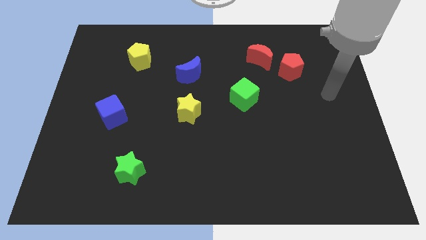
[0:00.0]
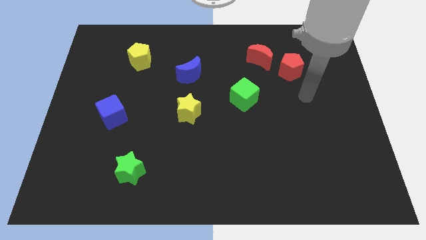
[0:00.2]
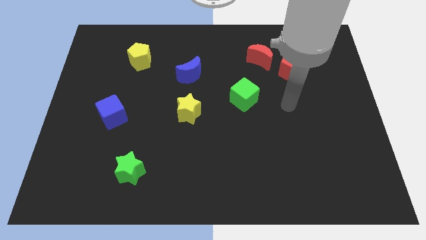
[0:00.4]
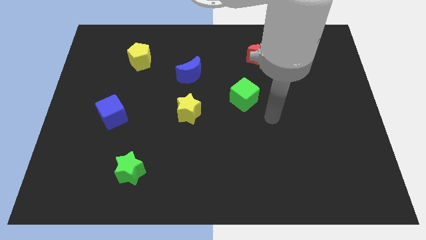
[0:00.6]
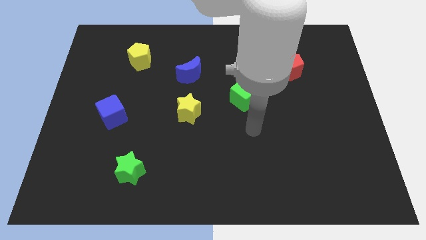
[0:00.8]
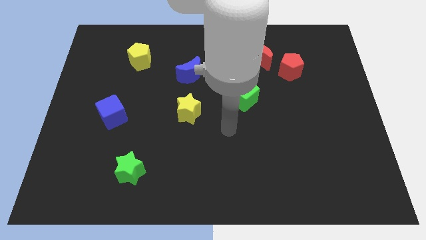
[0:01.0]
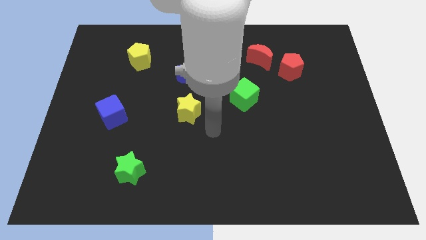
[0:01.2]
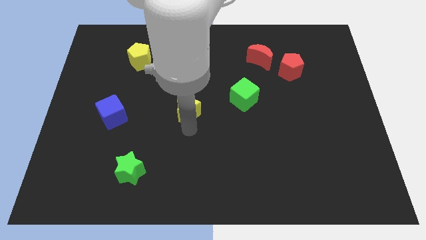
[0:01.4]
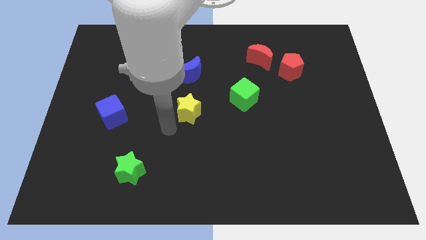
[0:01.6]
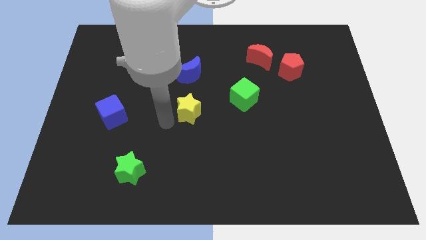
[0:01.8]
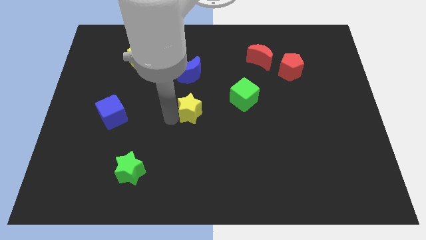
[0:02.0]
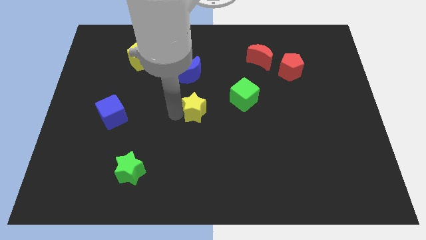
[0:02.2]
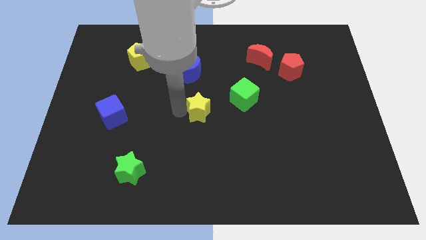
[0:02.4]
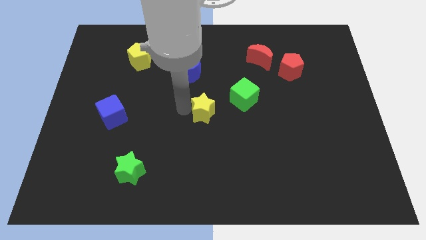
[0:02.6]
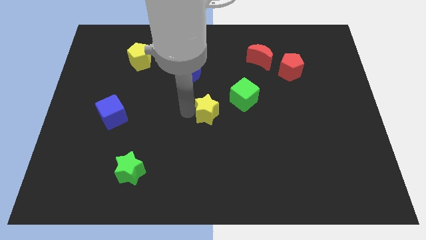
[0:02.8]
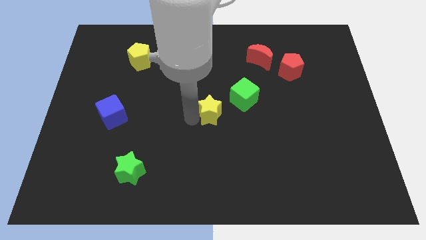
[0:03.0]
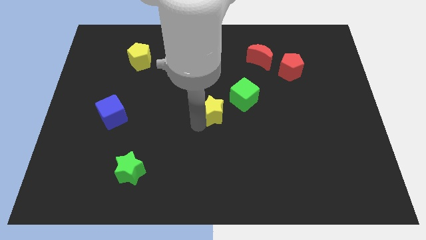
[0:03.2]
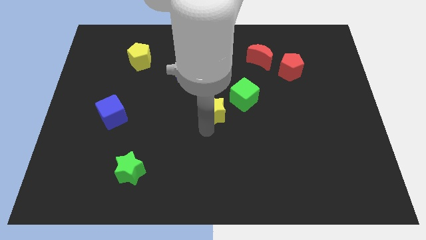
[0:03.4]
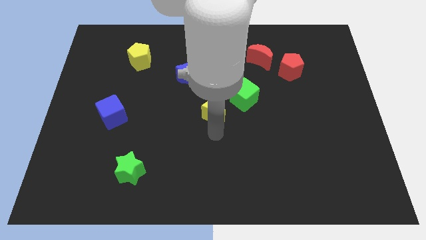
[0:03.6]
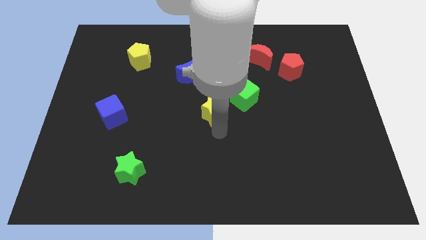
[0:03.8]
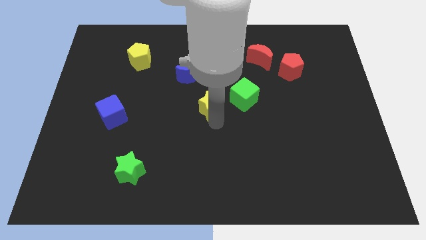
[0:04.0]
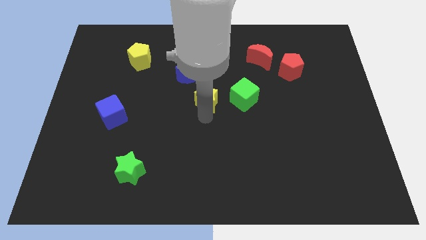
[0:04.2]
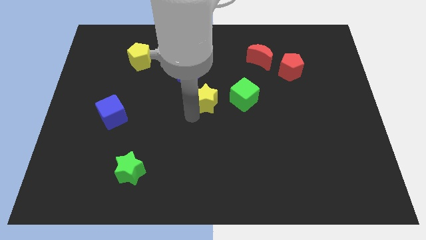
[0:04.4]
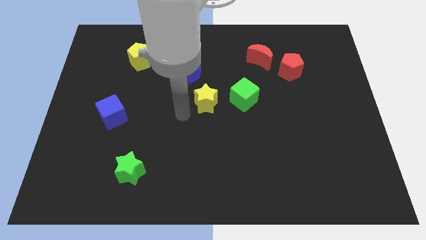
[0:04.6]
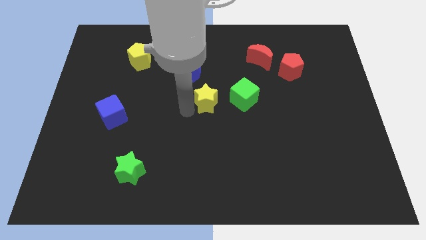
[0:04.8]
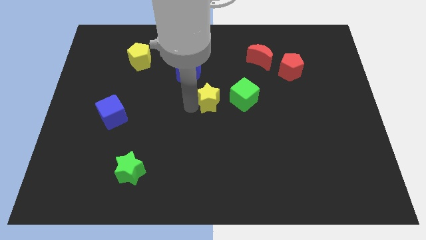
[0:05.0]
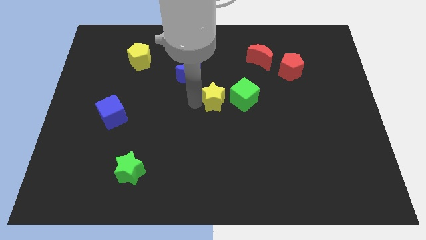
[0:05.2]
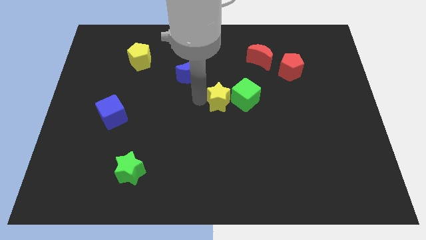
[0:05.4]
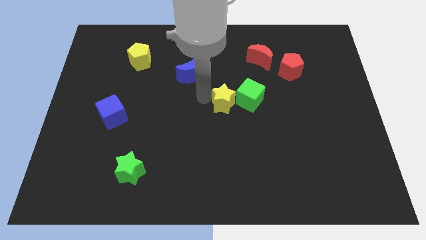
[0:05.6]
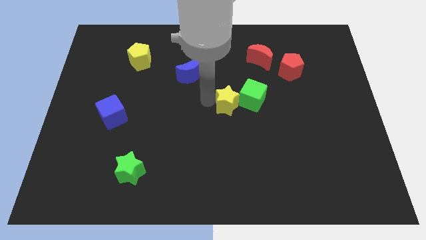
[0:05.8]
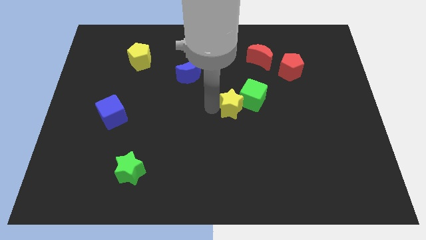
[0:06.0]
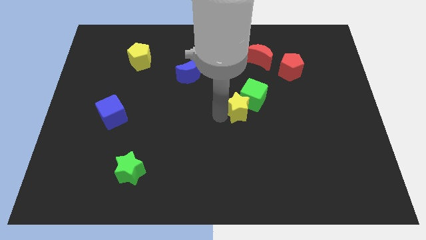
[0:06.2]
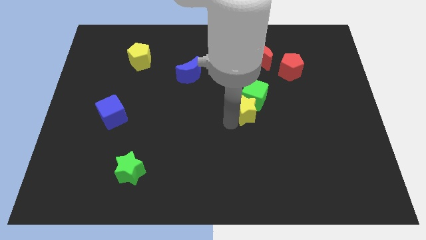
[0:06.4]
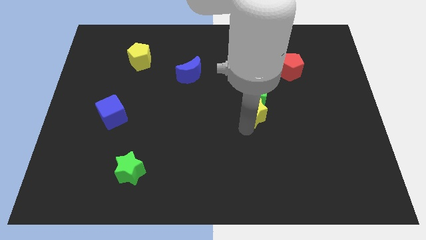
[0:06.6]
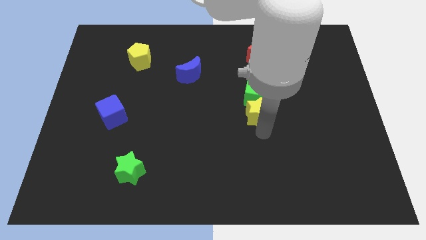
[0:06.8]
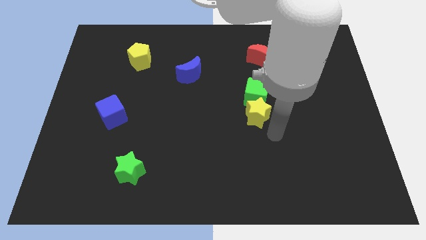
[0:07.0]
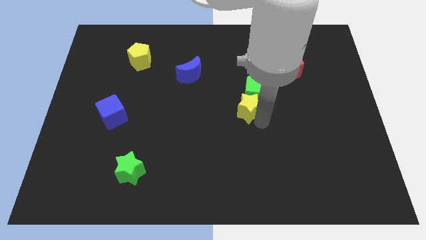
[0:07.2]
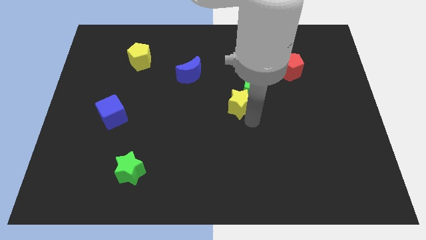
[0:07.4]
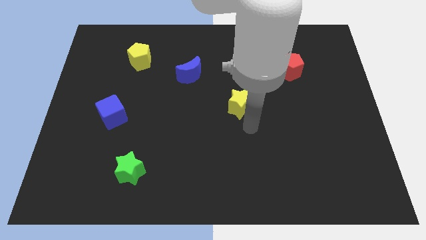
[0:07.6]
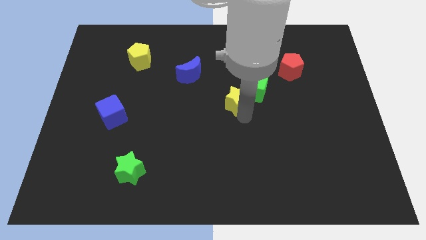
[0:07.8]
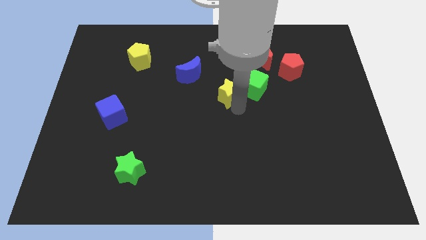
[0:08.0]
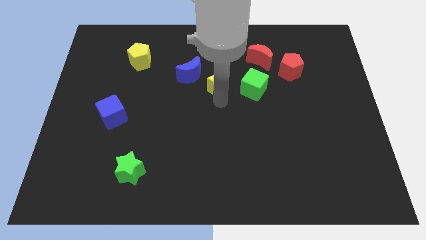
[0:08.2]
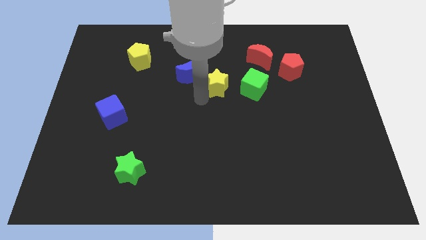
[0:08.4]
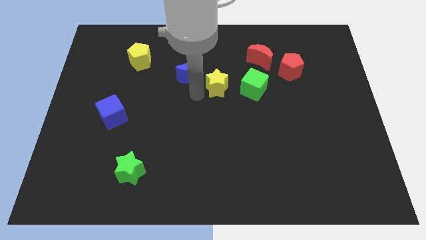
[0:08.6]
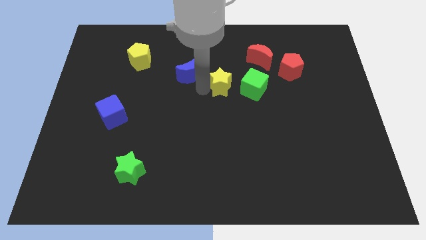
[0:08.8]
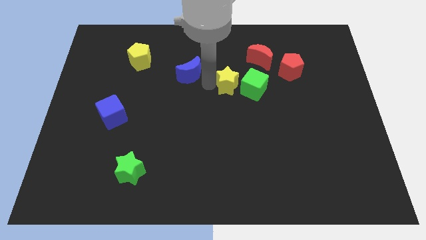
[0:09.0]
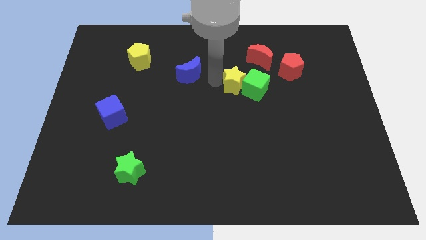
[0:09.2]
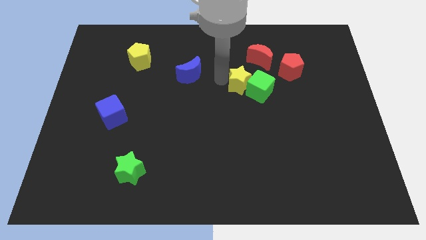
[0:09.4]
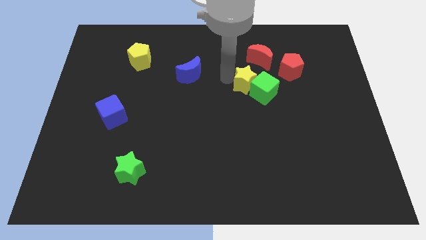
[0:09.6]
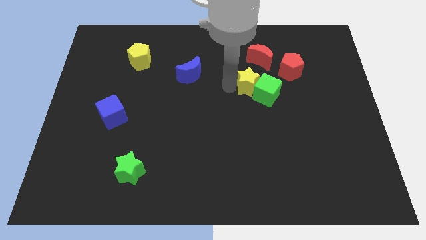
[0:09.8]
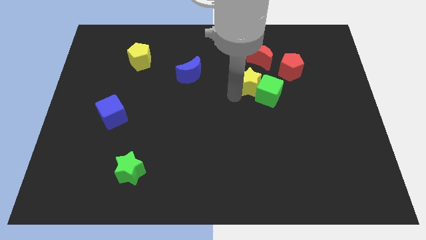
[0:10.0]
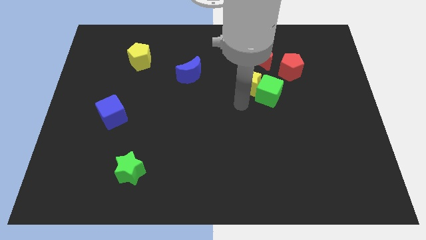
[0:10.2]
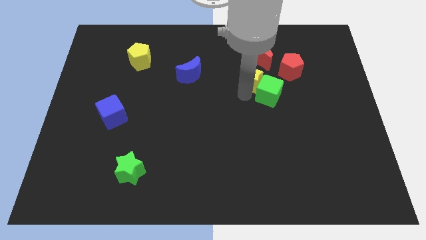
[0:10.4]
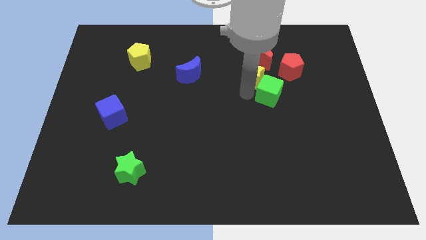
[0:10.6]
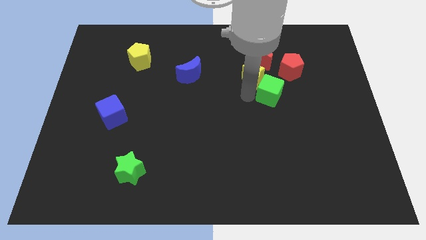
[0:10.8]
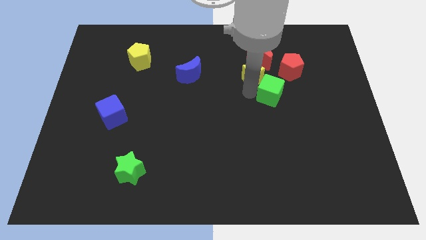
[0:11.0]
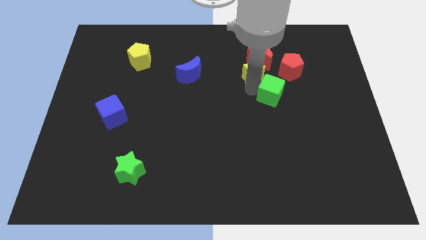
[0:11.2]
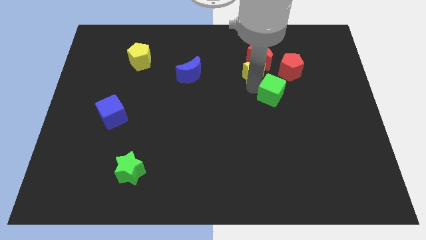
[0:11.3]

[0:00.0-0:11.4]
slide the yellow star to the red moon
